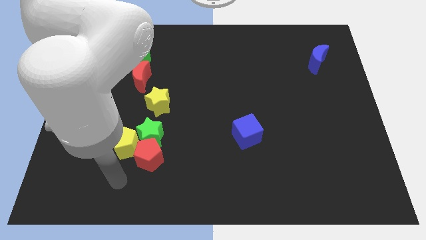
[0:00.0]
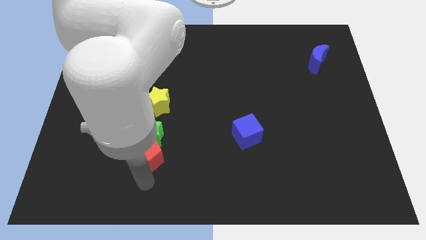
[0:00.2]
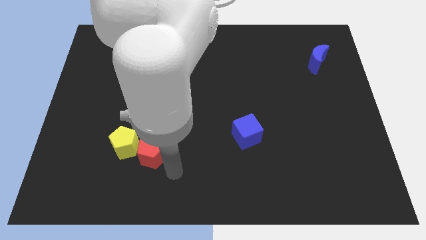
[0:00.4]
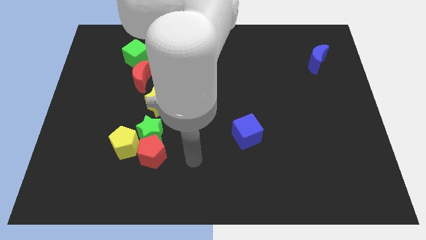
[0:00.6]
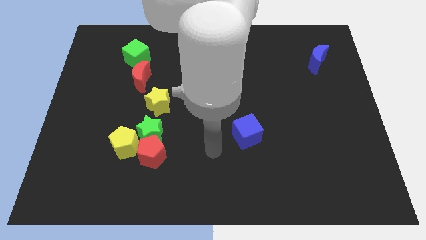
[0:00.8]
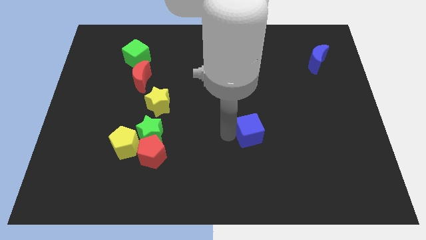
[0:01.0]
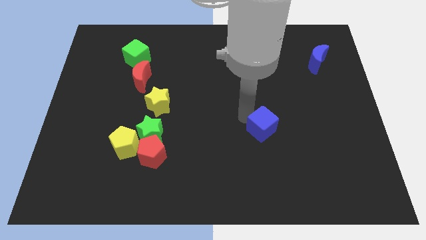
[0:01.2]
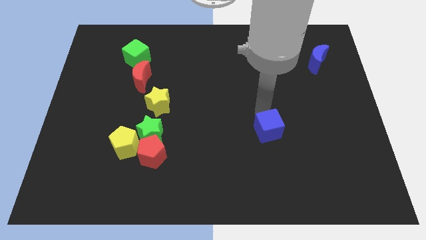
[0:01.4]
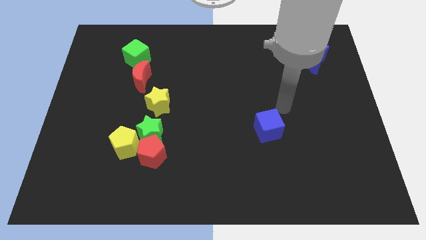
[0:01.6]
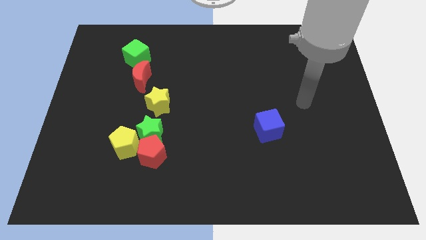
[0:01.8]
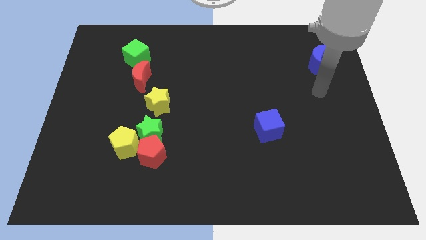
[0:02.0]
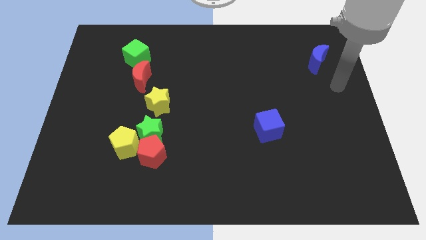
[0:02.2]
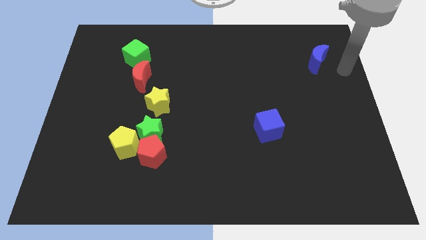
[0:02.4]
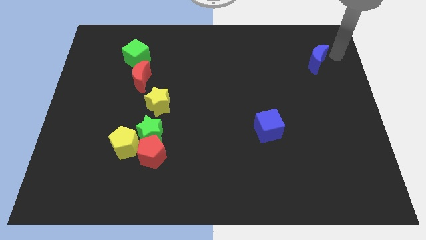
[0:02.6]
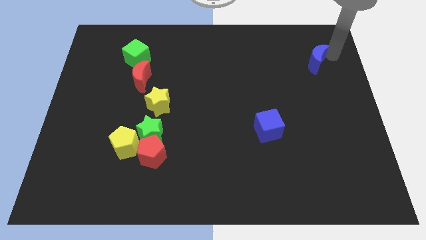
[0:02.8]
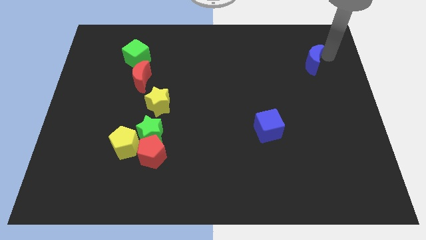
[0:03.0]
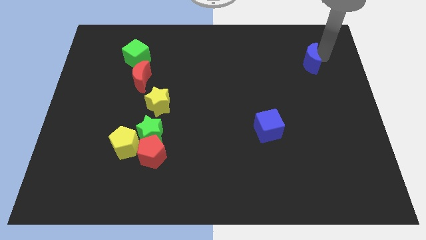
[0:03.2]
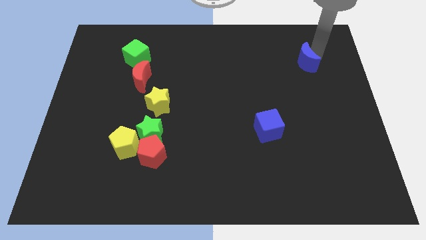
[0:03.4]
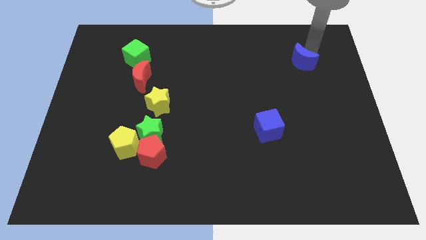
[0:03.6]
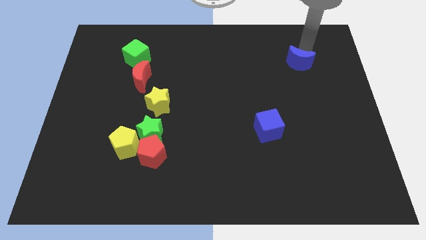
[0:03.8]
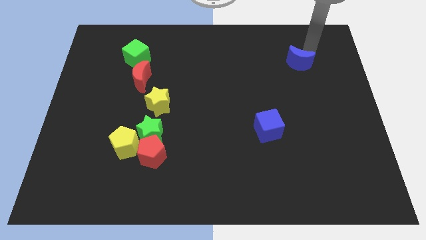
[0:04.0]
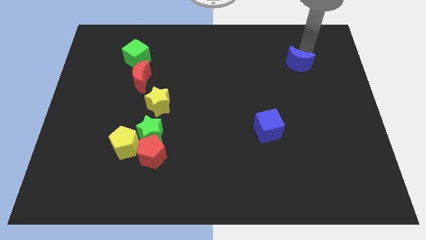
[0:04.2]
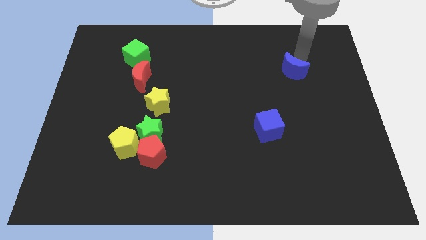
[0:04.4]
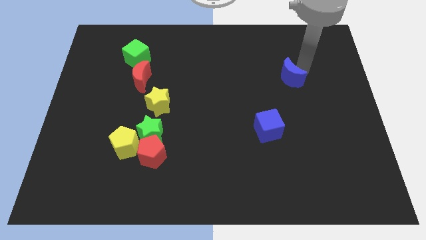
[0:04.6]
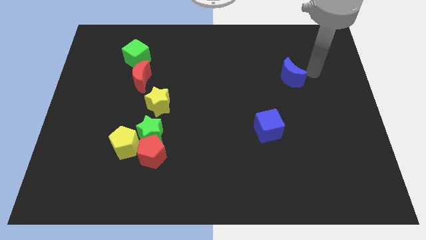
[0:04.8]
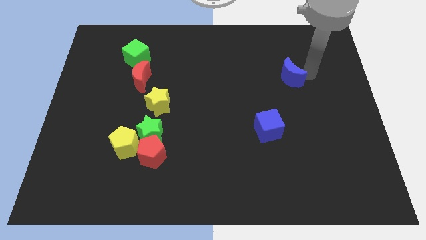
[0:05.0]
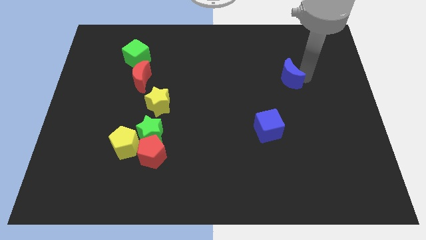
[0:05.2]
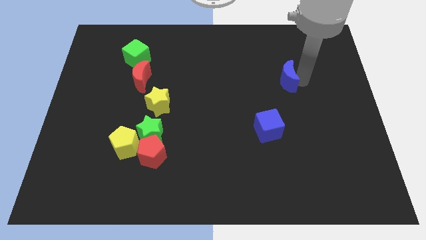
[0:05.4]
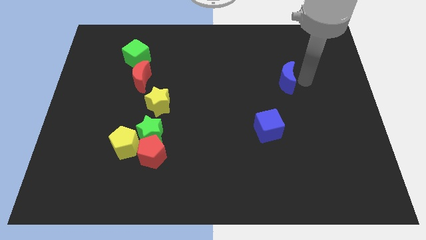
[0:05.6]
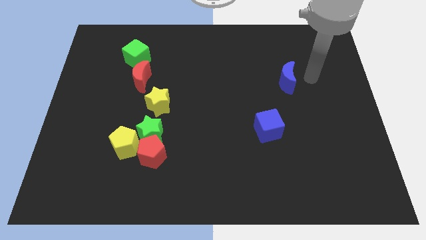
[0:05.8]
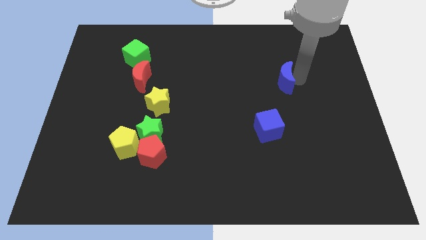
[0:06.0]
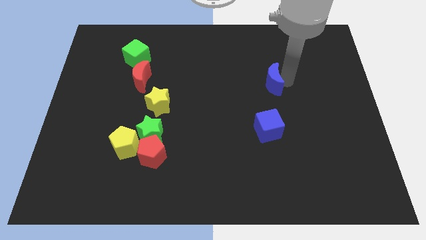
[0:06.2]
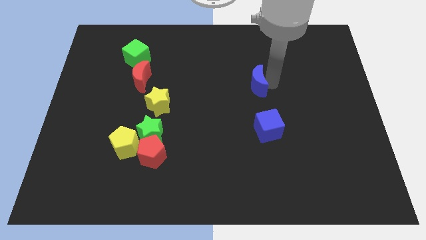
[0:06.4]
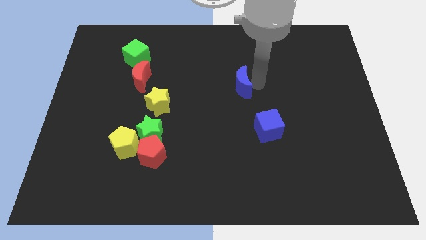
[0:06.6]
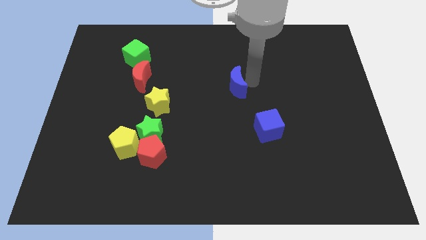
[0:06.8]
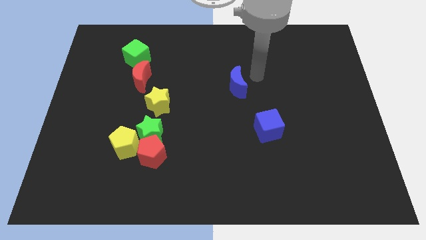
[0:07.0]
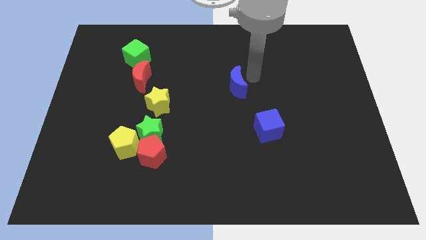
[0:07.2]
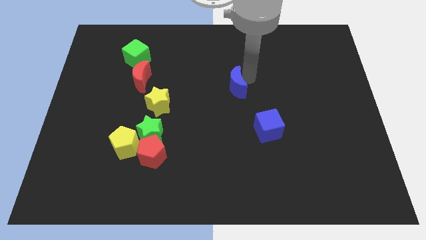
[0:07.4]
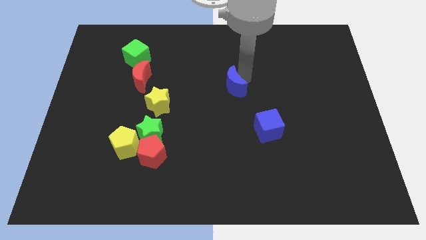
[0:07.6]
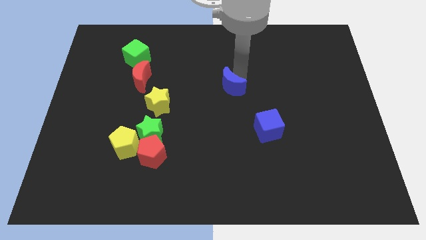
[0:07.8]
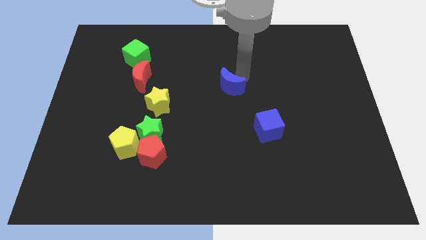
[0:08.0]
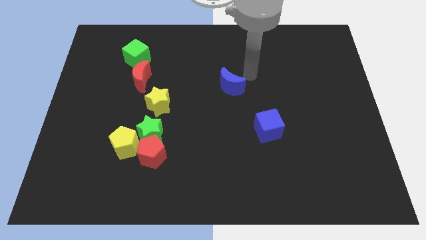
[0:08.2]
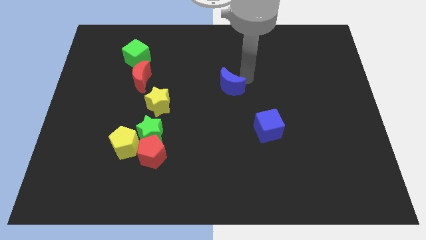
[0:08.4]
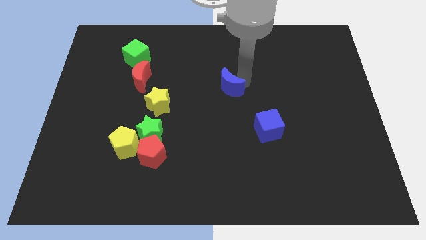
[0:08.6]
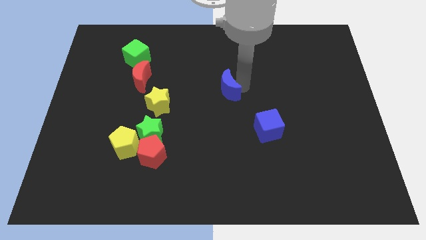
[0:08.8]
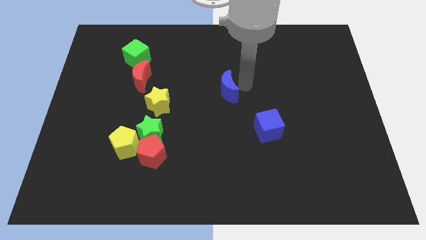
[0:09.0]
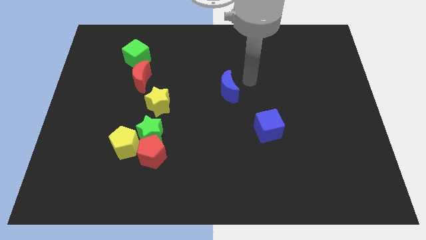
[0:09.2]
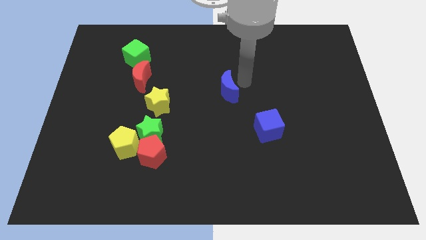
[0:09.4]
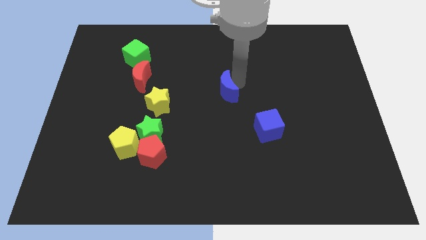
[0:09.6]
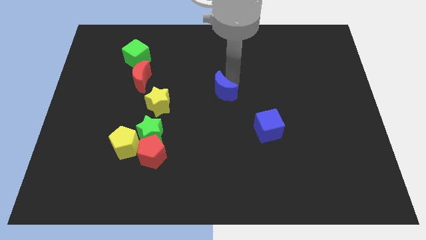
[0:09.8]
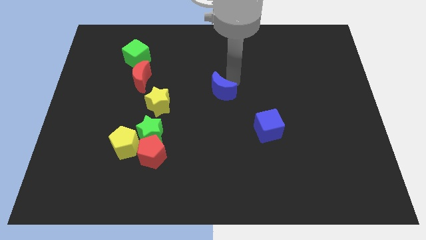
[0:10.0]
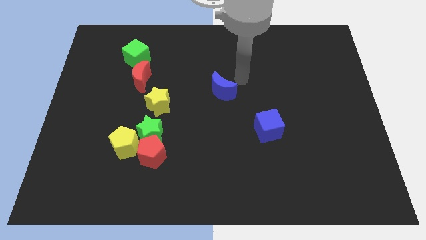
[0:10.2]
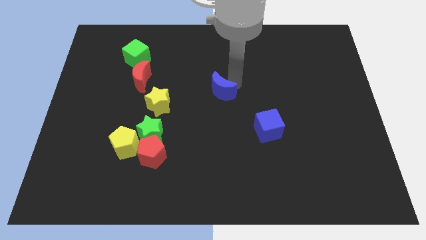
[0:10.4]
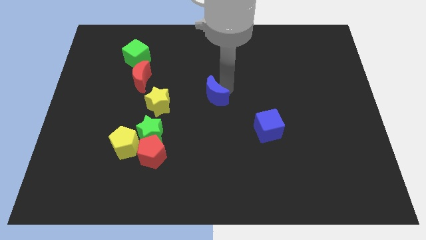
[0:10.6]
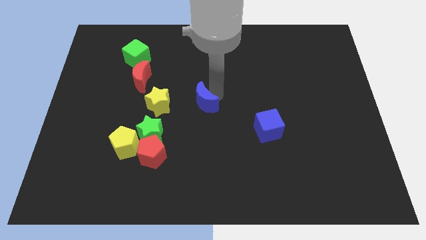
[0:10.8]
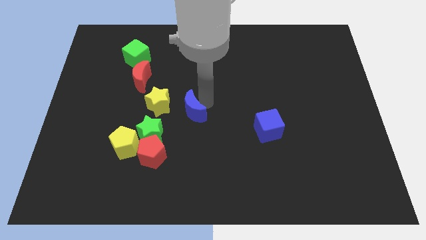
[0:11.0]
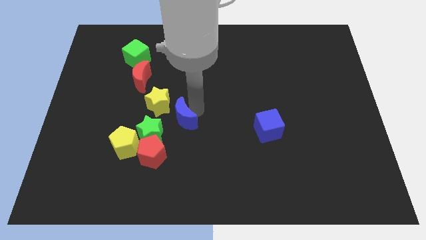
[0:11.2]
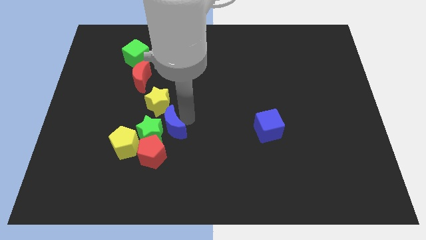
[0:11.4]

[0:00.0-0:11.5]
slide the blue moon close to the green star

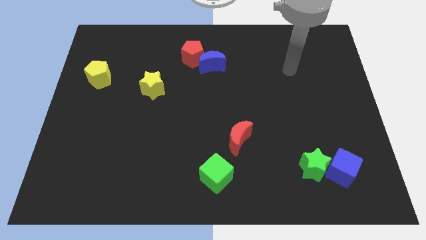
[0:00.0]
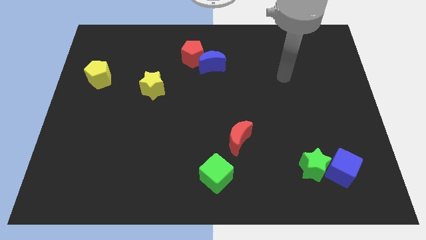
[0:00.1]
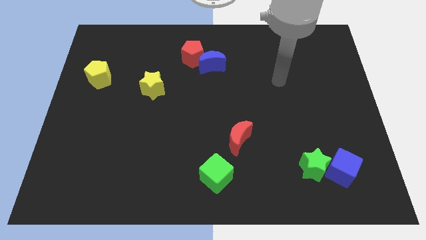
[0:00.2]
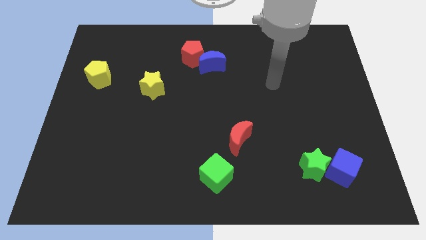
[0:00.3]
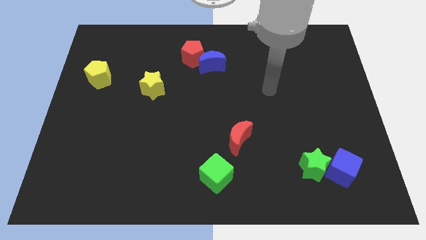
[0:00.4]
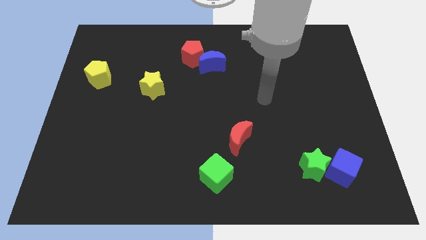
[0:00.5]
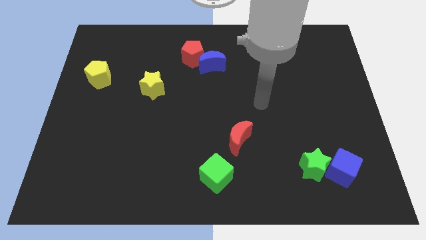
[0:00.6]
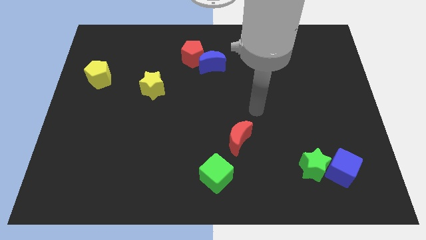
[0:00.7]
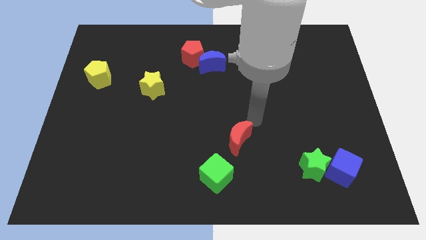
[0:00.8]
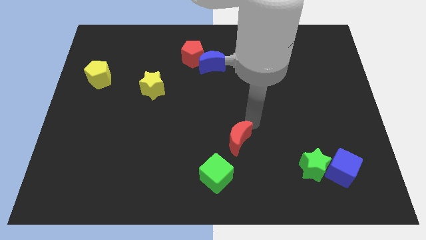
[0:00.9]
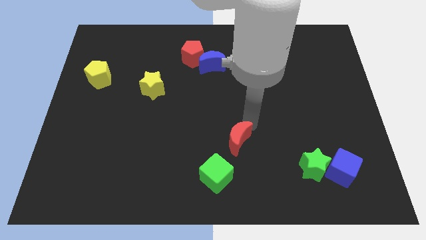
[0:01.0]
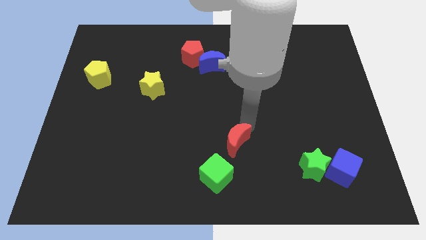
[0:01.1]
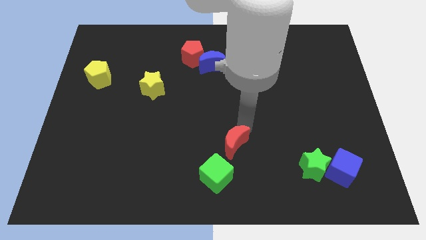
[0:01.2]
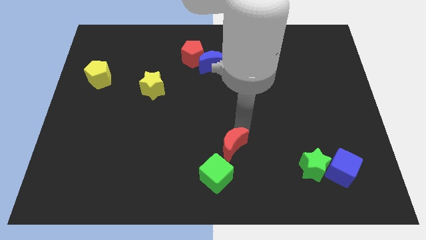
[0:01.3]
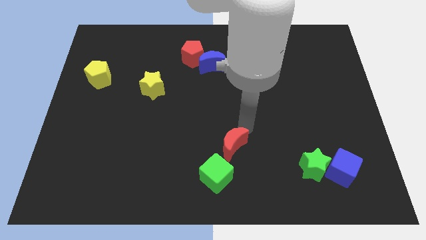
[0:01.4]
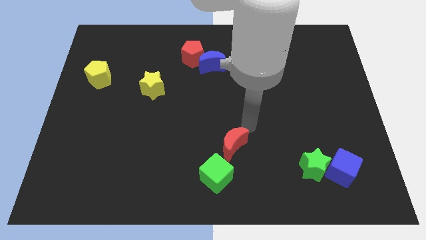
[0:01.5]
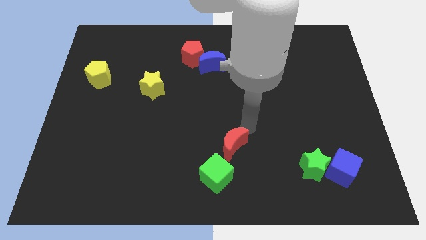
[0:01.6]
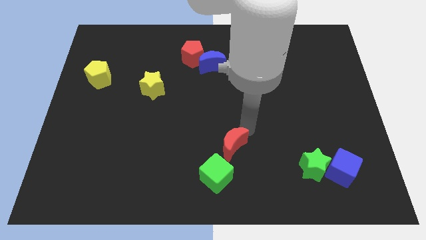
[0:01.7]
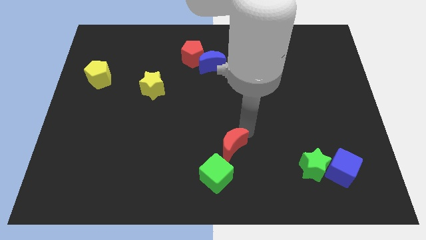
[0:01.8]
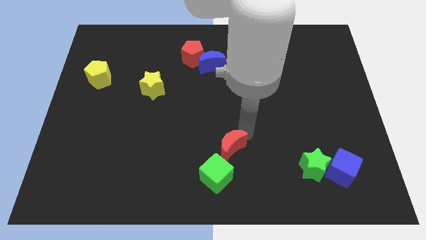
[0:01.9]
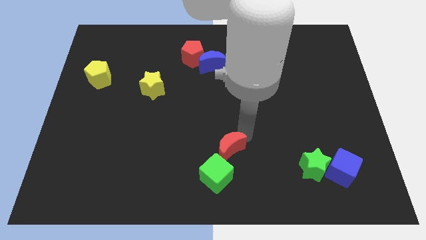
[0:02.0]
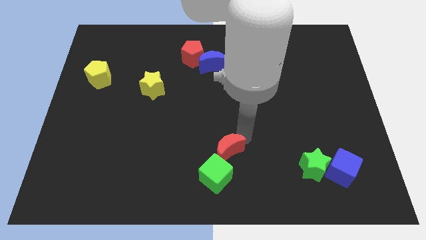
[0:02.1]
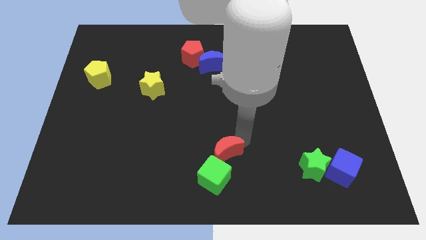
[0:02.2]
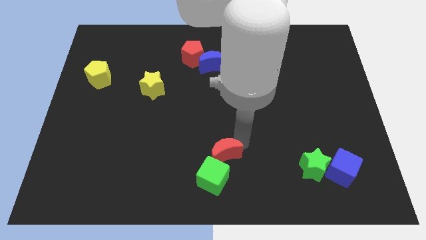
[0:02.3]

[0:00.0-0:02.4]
put the red moon towards the green cube
